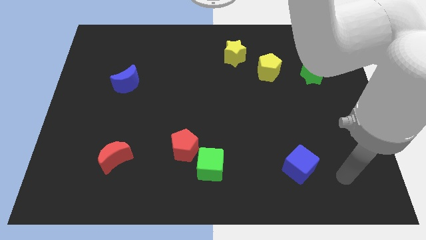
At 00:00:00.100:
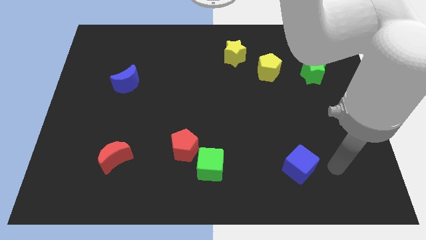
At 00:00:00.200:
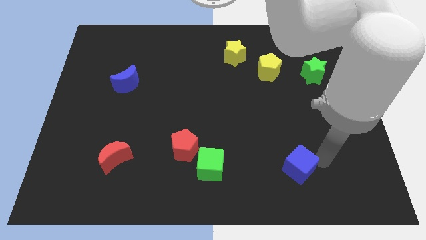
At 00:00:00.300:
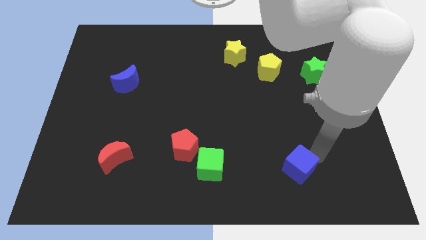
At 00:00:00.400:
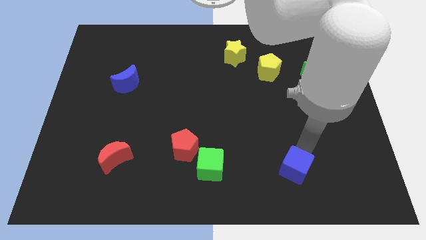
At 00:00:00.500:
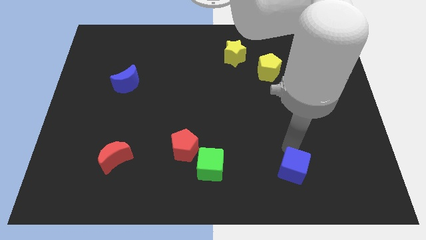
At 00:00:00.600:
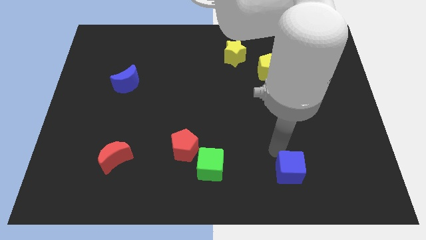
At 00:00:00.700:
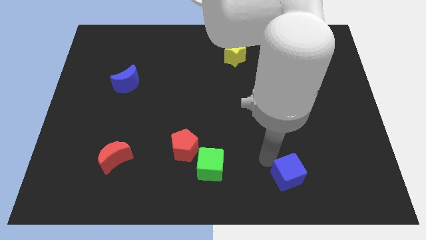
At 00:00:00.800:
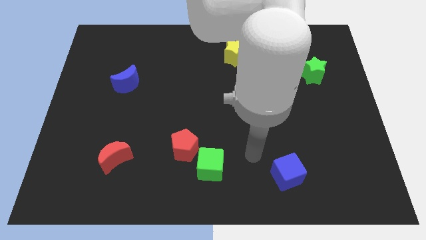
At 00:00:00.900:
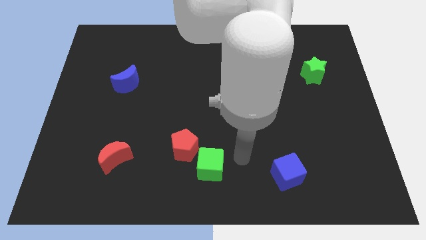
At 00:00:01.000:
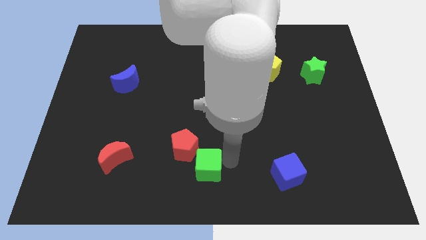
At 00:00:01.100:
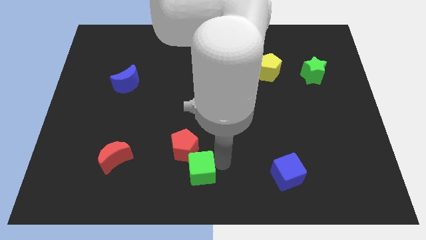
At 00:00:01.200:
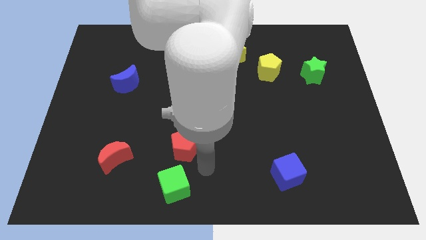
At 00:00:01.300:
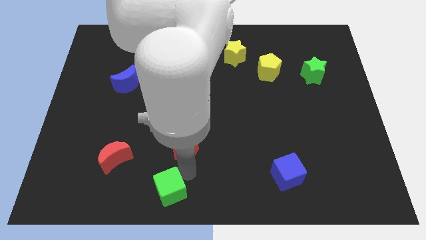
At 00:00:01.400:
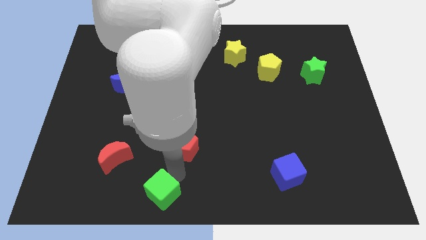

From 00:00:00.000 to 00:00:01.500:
pull the red pentagon apart from the green cube

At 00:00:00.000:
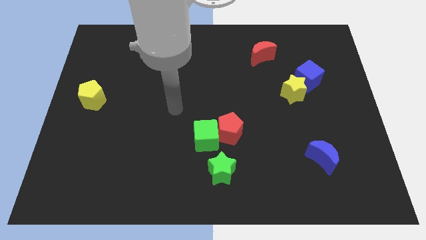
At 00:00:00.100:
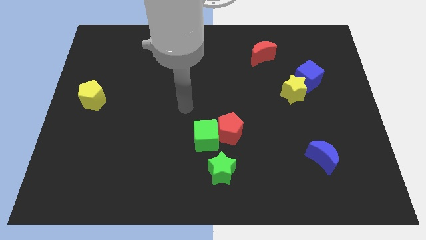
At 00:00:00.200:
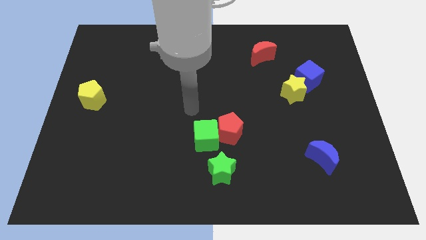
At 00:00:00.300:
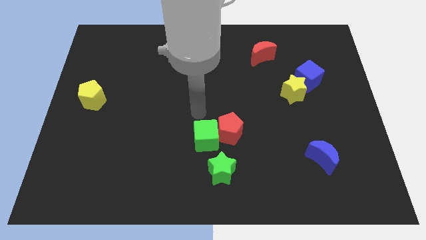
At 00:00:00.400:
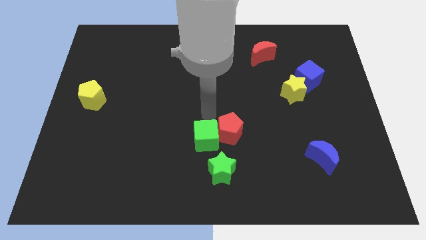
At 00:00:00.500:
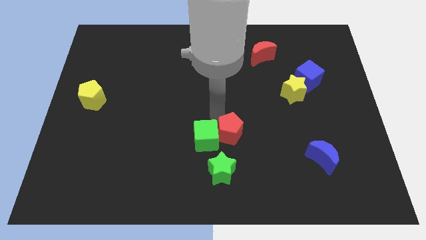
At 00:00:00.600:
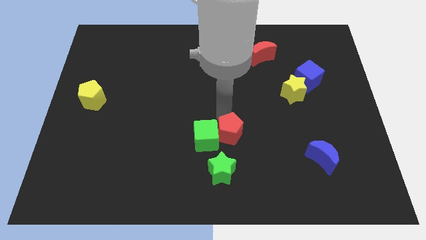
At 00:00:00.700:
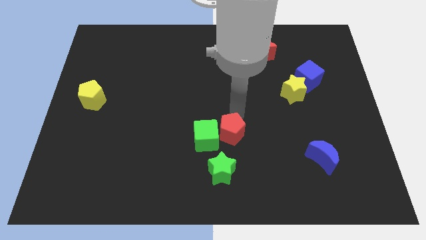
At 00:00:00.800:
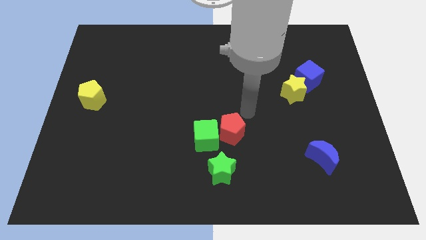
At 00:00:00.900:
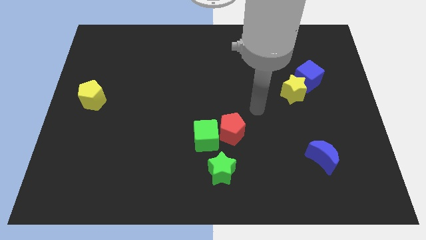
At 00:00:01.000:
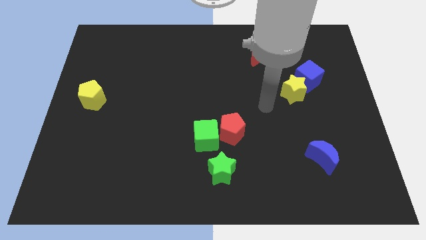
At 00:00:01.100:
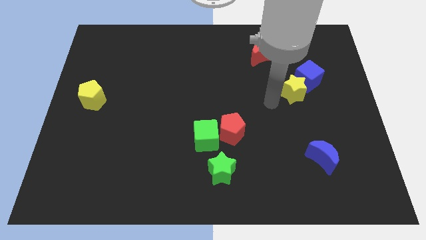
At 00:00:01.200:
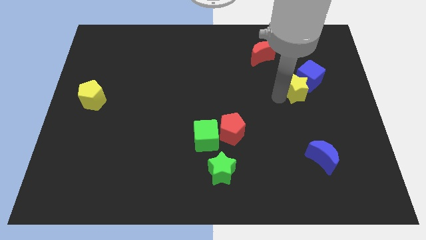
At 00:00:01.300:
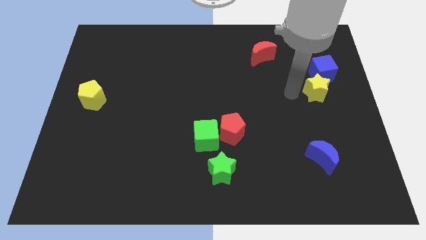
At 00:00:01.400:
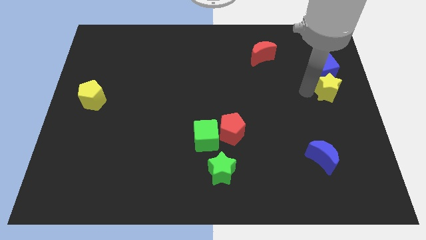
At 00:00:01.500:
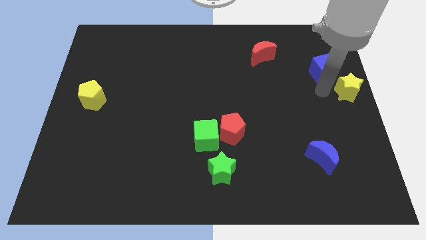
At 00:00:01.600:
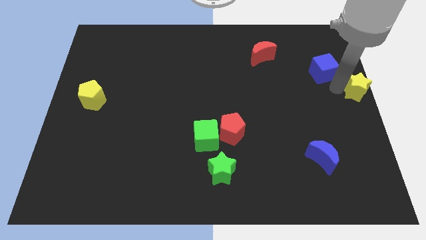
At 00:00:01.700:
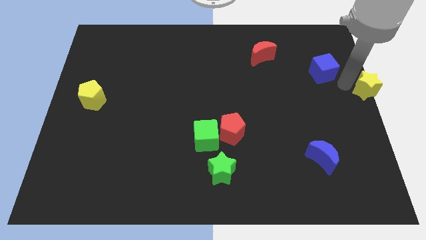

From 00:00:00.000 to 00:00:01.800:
separate the blue cube from the yellow star

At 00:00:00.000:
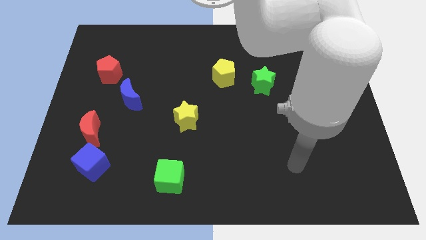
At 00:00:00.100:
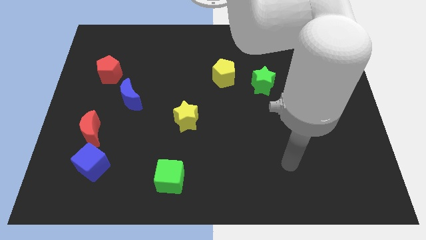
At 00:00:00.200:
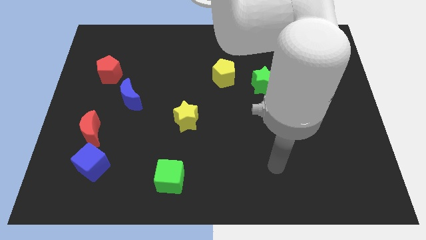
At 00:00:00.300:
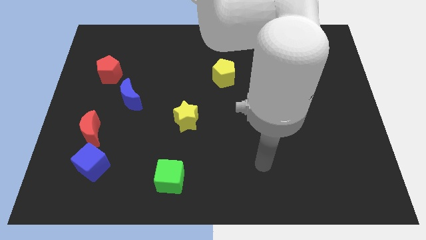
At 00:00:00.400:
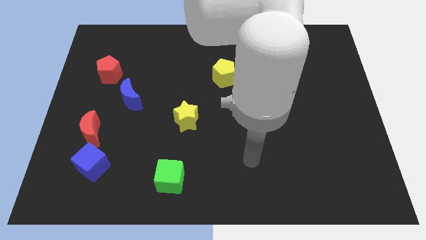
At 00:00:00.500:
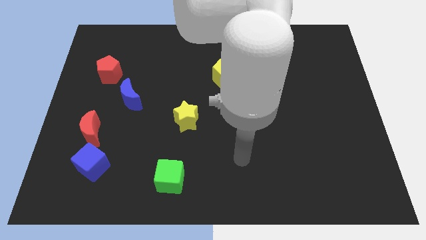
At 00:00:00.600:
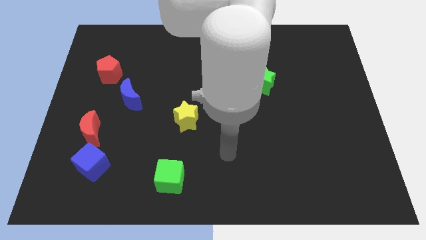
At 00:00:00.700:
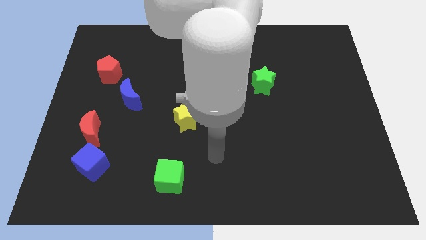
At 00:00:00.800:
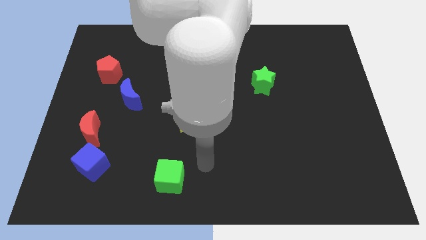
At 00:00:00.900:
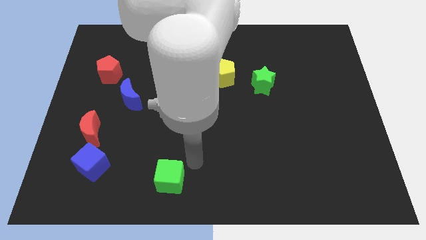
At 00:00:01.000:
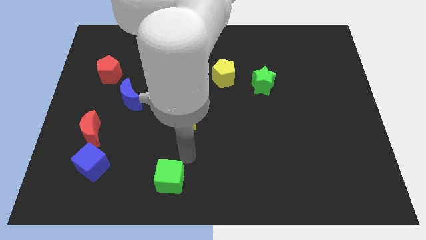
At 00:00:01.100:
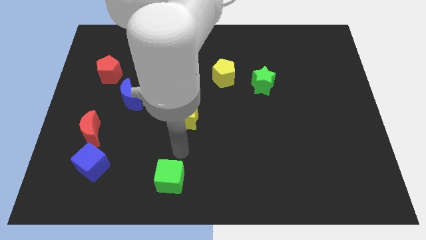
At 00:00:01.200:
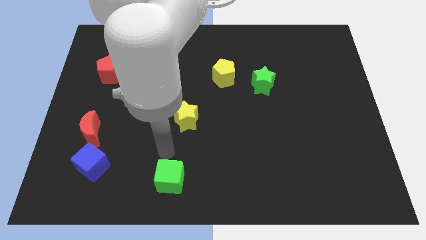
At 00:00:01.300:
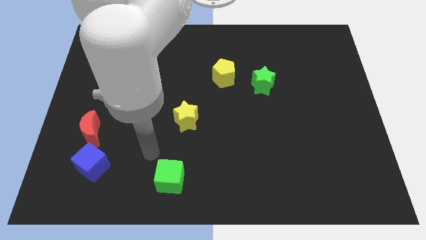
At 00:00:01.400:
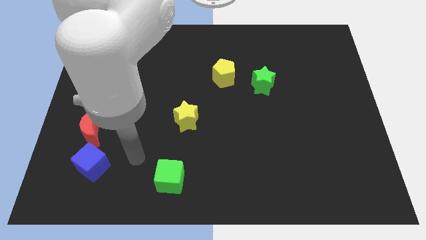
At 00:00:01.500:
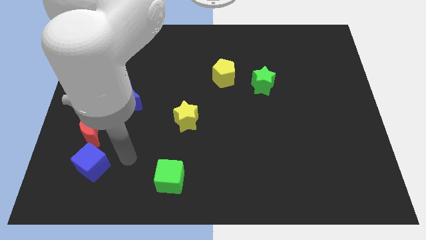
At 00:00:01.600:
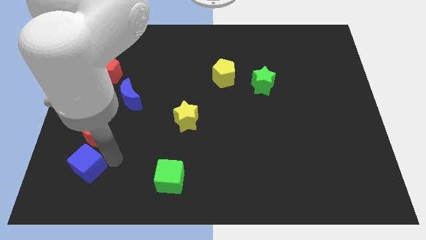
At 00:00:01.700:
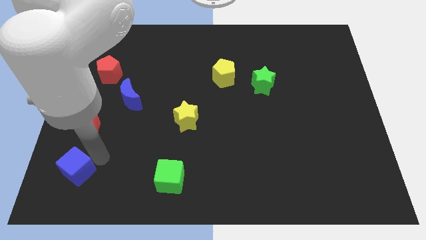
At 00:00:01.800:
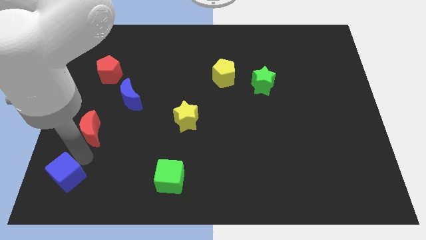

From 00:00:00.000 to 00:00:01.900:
move the red moon away from the blue cube

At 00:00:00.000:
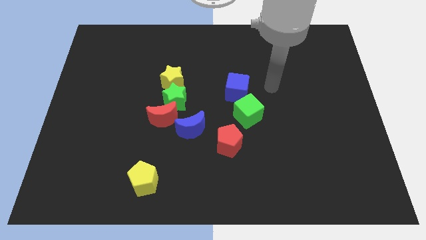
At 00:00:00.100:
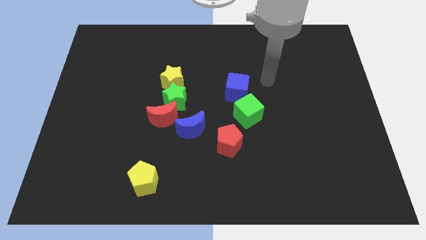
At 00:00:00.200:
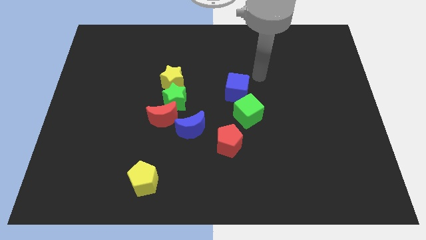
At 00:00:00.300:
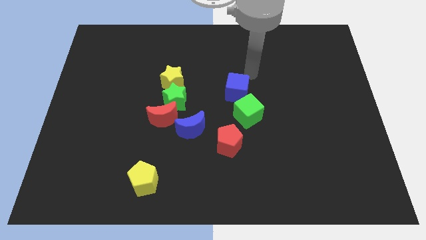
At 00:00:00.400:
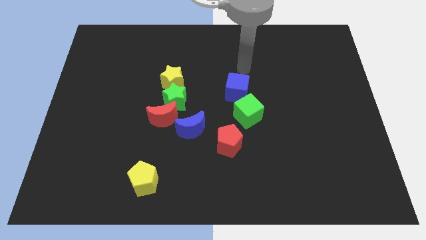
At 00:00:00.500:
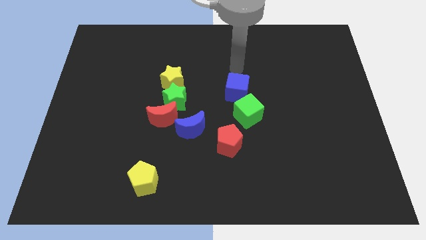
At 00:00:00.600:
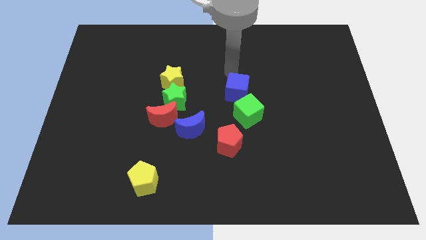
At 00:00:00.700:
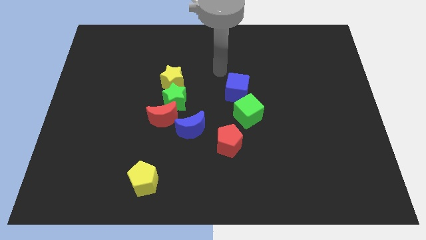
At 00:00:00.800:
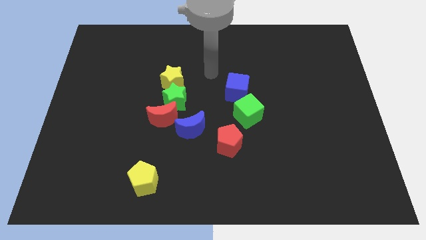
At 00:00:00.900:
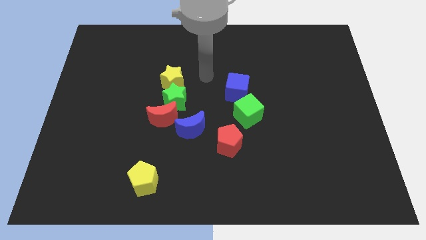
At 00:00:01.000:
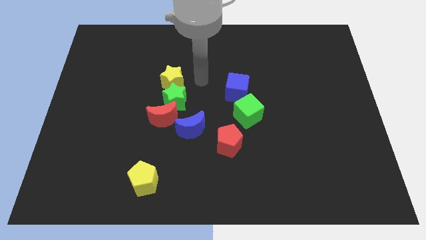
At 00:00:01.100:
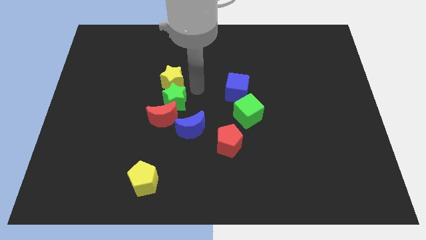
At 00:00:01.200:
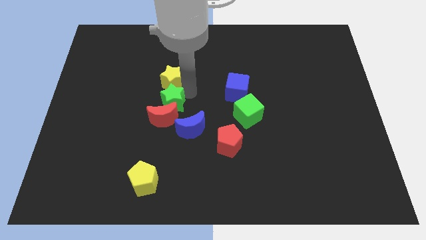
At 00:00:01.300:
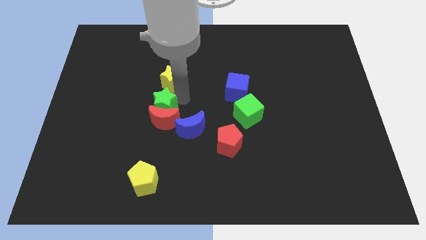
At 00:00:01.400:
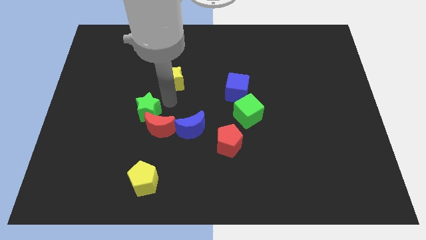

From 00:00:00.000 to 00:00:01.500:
pull the yellow star apart from the green star

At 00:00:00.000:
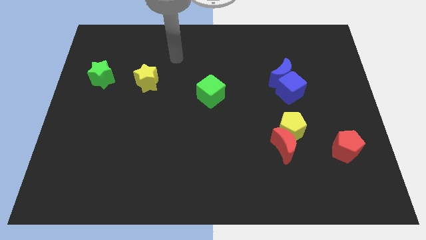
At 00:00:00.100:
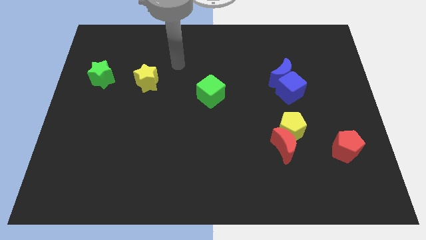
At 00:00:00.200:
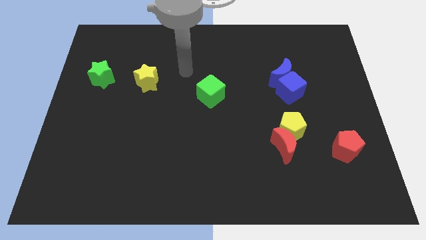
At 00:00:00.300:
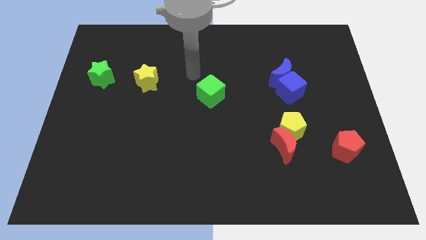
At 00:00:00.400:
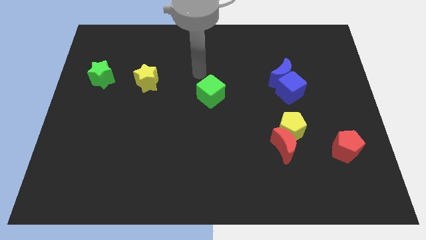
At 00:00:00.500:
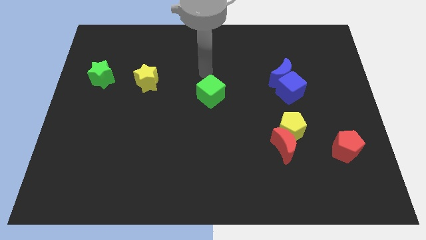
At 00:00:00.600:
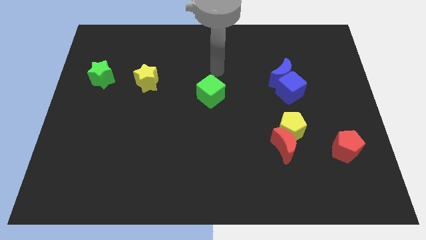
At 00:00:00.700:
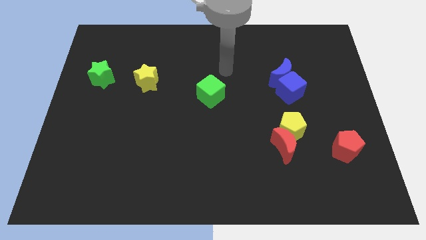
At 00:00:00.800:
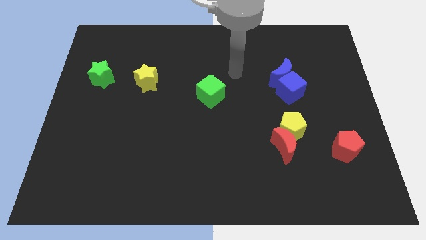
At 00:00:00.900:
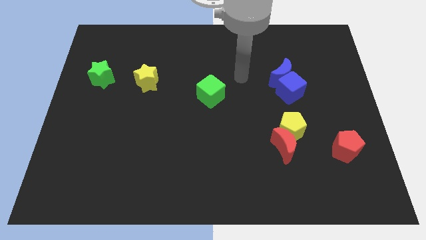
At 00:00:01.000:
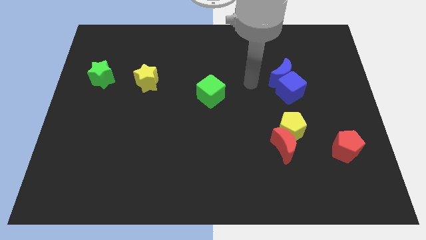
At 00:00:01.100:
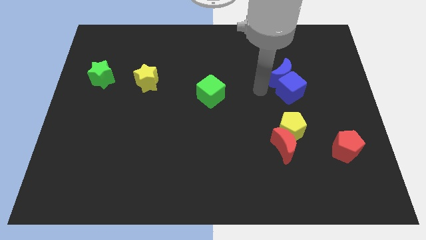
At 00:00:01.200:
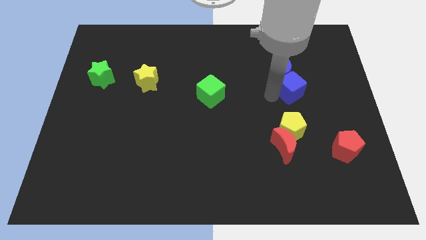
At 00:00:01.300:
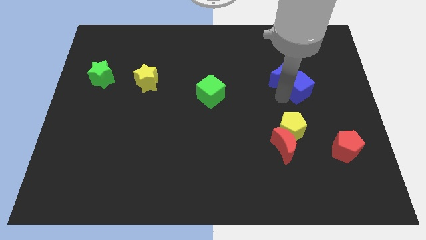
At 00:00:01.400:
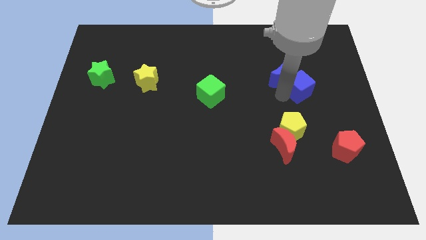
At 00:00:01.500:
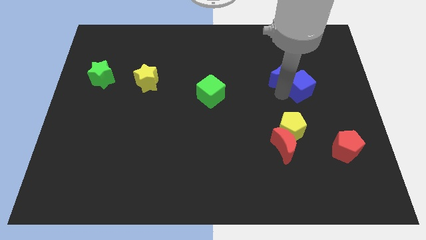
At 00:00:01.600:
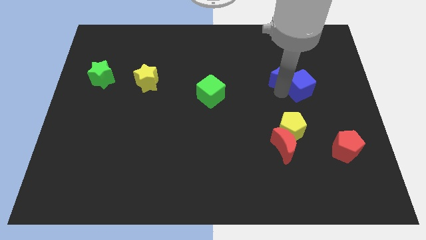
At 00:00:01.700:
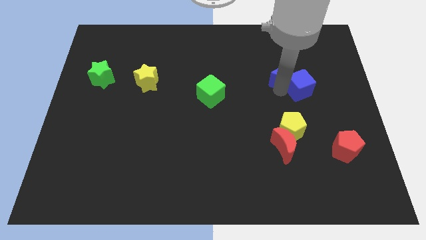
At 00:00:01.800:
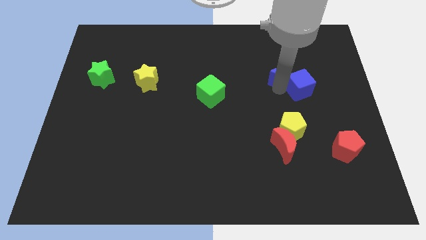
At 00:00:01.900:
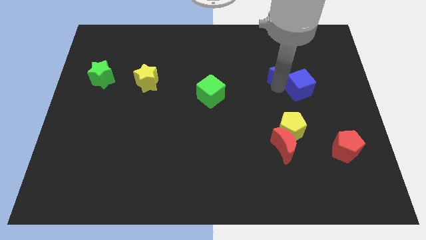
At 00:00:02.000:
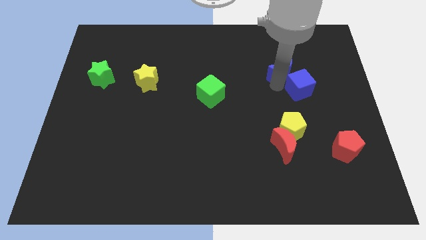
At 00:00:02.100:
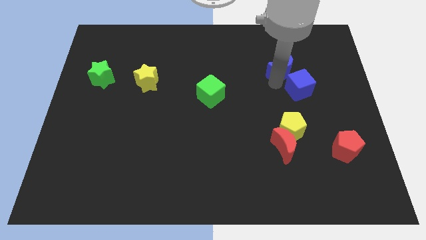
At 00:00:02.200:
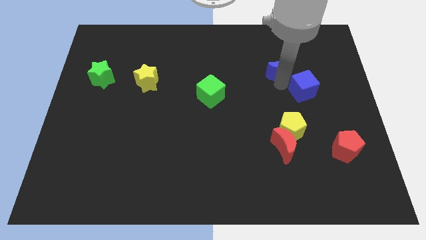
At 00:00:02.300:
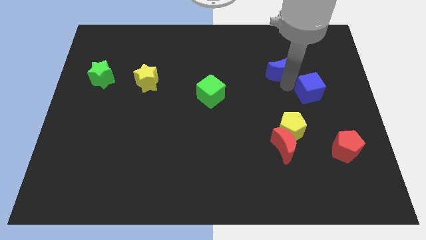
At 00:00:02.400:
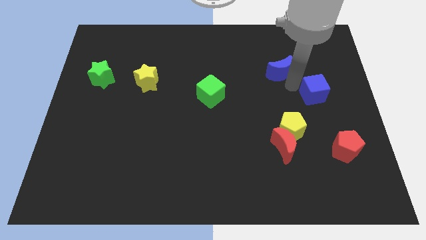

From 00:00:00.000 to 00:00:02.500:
move the blue moon away from the blue cube
